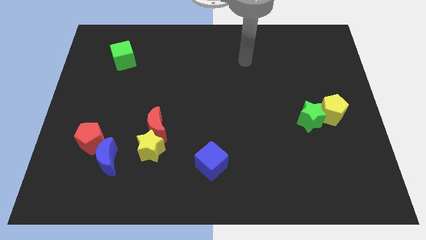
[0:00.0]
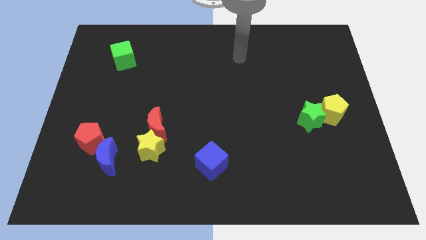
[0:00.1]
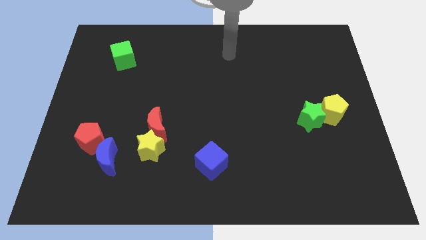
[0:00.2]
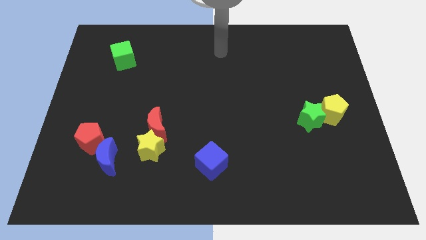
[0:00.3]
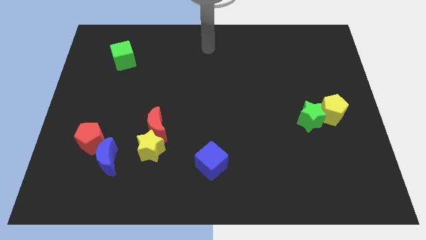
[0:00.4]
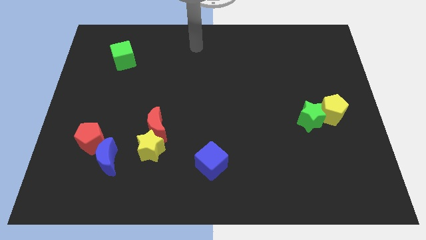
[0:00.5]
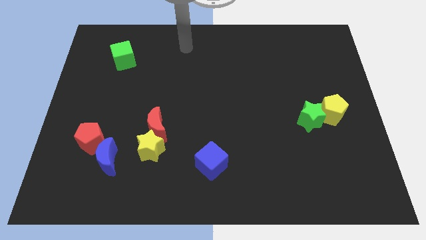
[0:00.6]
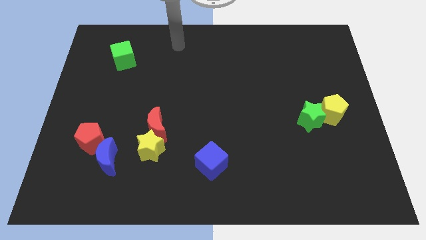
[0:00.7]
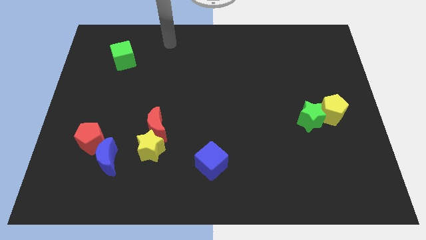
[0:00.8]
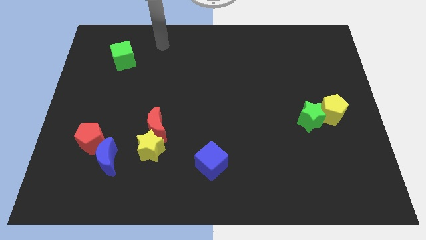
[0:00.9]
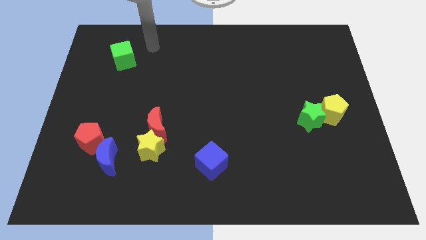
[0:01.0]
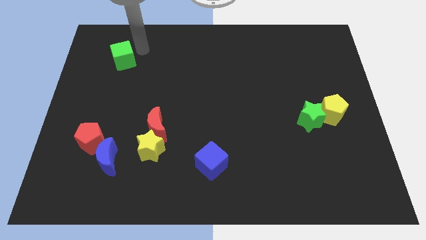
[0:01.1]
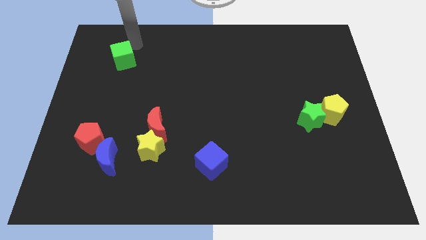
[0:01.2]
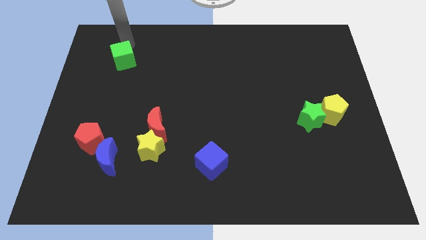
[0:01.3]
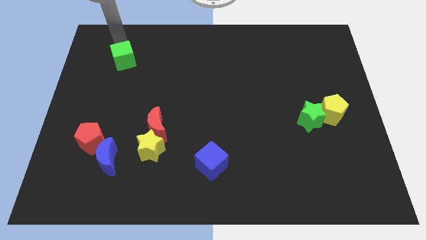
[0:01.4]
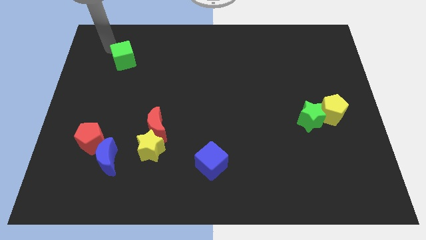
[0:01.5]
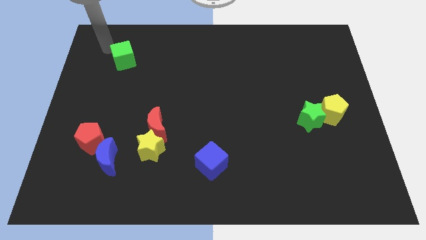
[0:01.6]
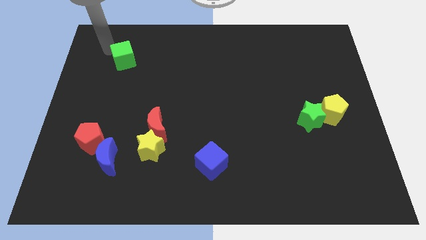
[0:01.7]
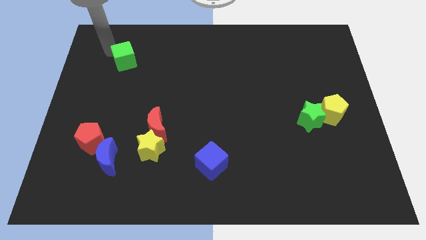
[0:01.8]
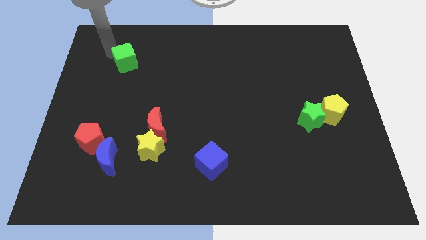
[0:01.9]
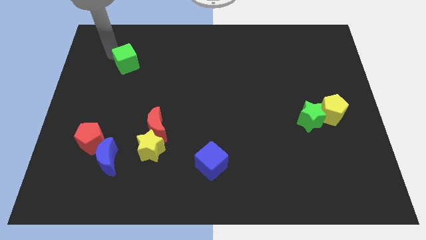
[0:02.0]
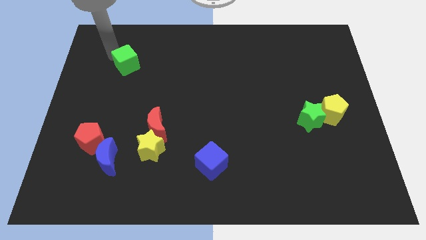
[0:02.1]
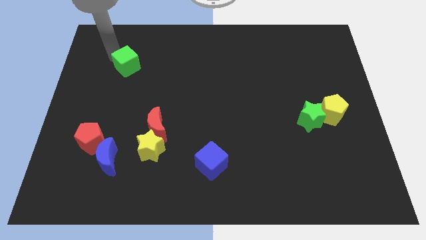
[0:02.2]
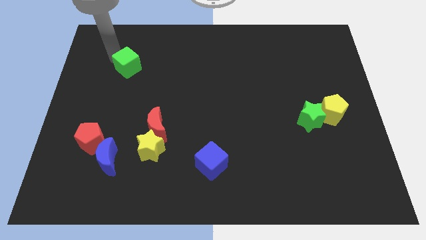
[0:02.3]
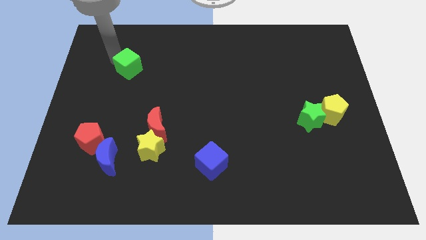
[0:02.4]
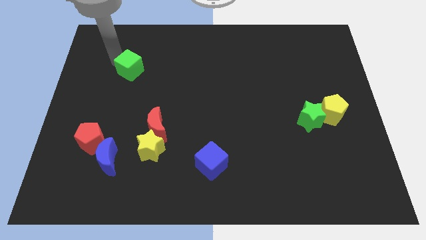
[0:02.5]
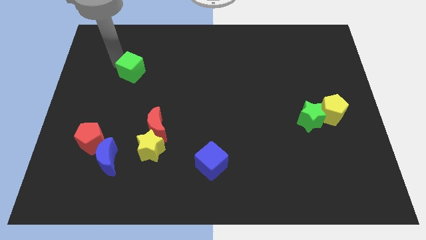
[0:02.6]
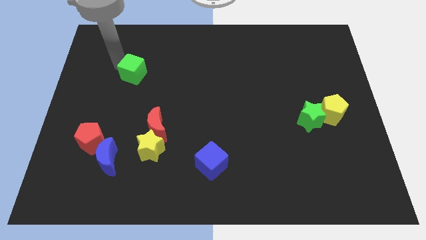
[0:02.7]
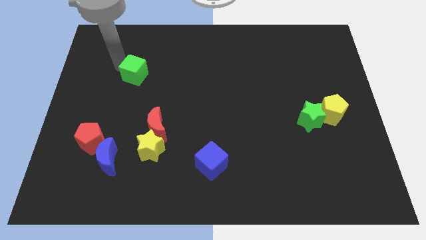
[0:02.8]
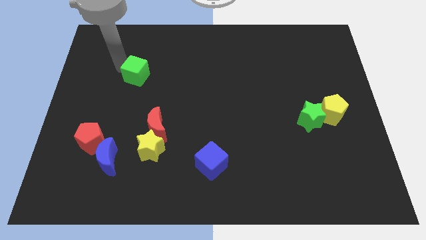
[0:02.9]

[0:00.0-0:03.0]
slide the green cube slightly downwards and to the right

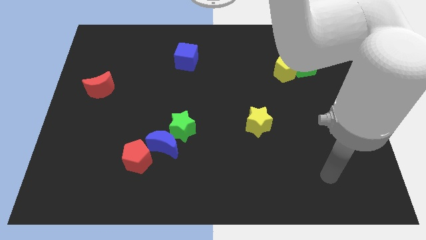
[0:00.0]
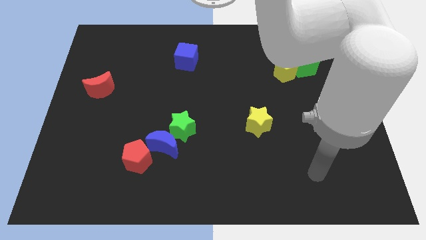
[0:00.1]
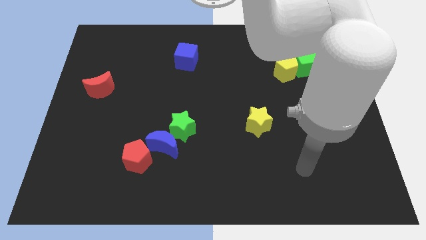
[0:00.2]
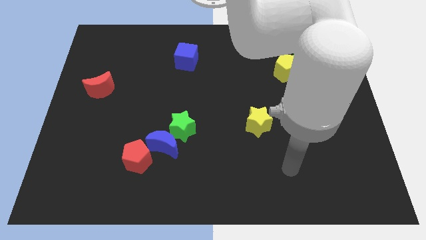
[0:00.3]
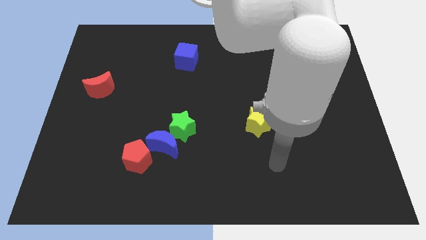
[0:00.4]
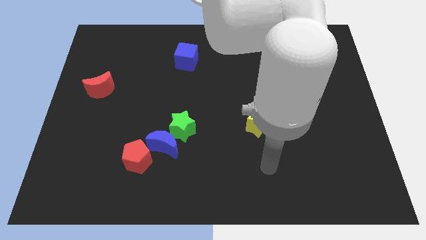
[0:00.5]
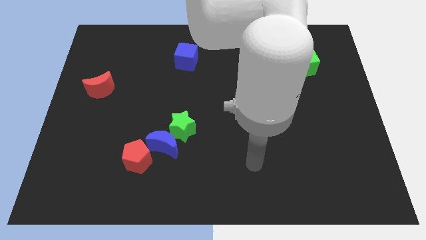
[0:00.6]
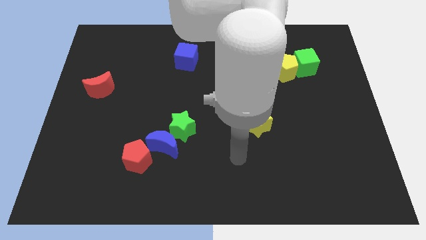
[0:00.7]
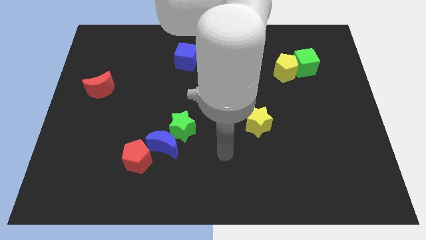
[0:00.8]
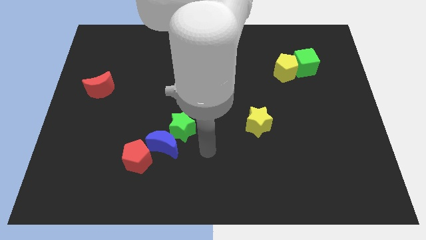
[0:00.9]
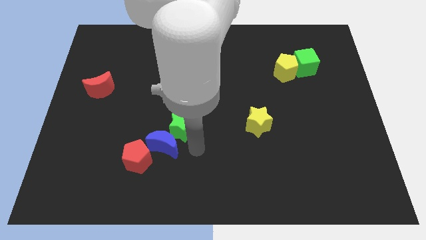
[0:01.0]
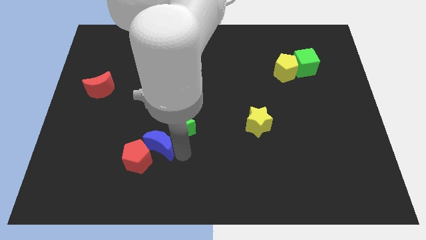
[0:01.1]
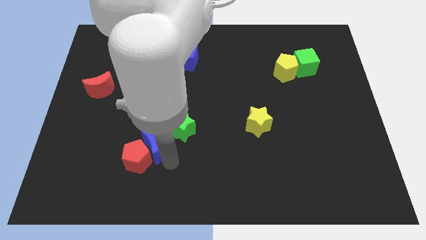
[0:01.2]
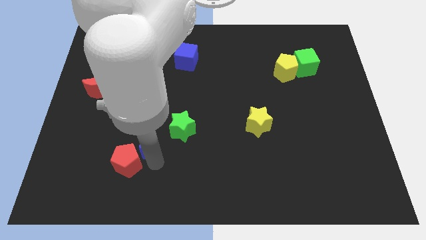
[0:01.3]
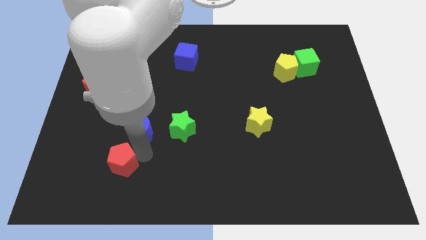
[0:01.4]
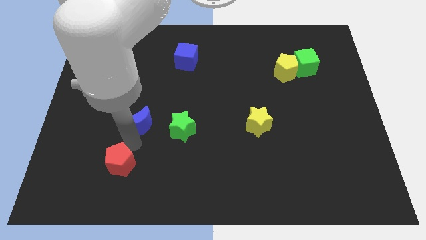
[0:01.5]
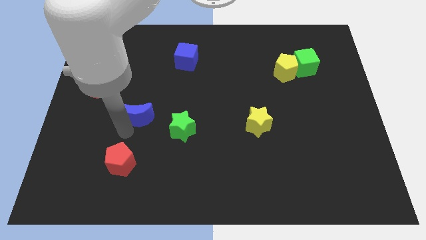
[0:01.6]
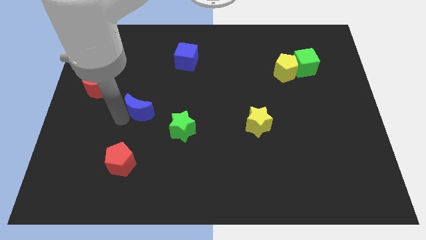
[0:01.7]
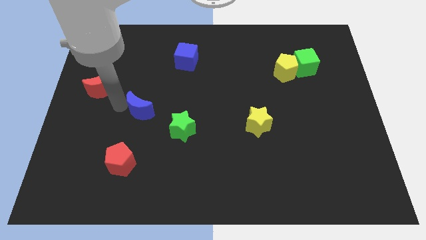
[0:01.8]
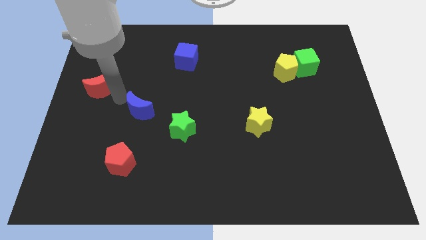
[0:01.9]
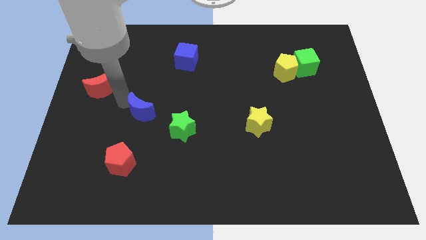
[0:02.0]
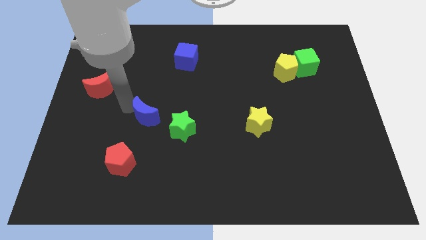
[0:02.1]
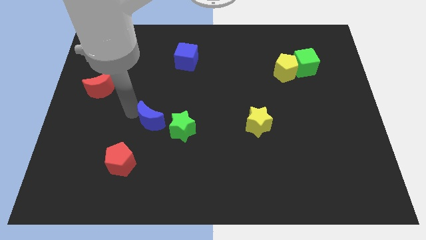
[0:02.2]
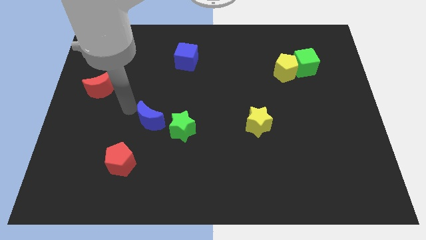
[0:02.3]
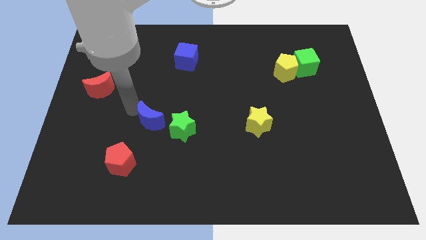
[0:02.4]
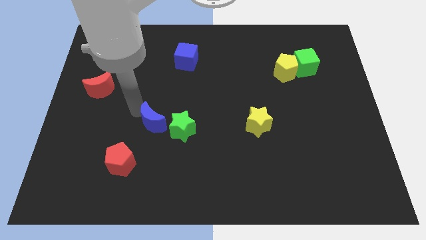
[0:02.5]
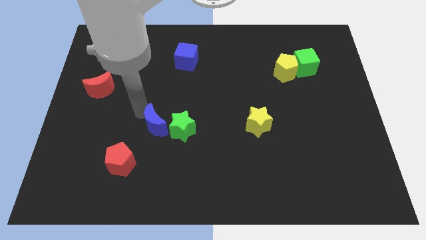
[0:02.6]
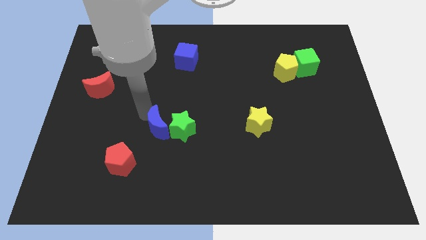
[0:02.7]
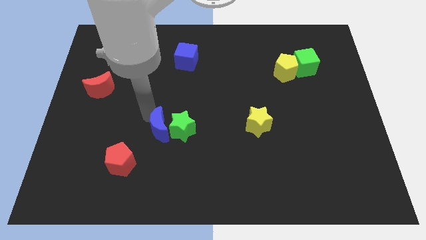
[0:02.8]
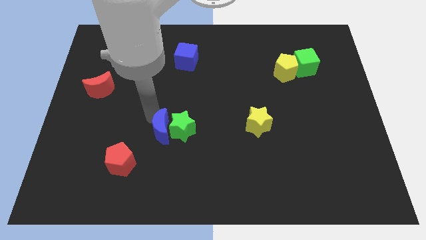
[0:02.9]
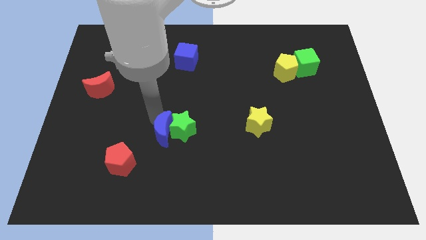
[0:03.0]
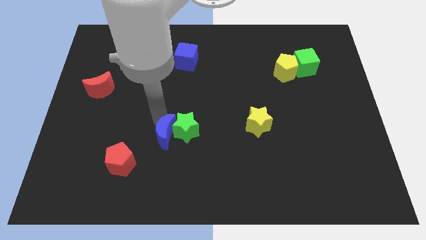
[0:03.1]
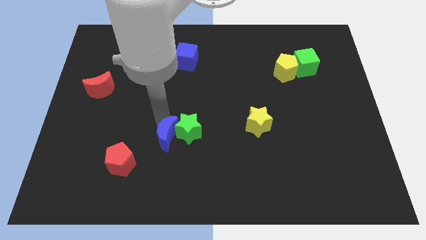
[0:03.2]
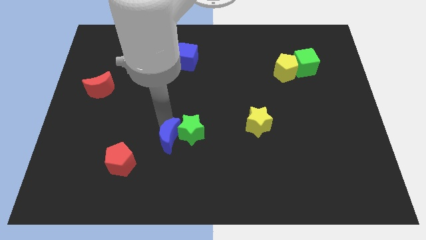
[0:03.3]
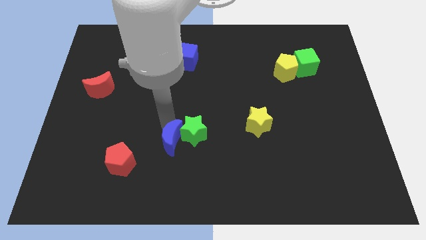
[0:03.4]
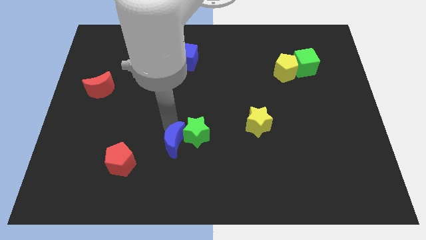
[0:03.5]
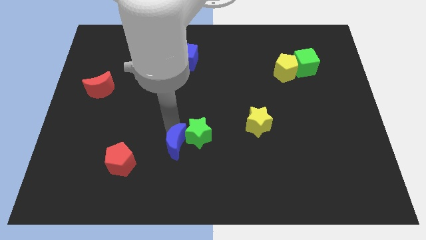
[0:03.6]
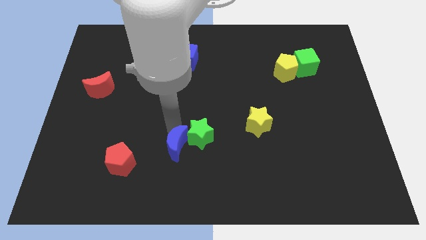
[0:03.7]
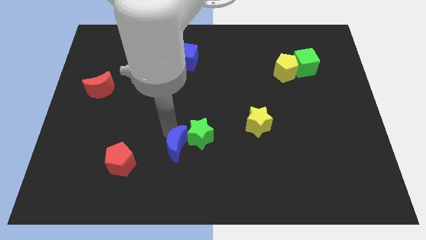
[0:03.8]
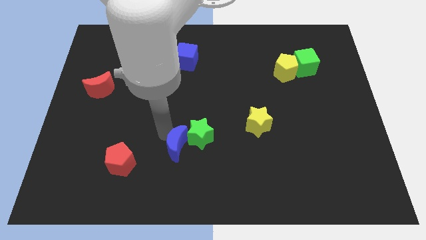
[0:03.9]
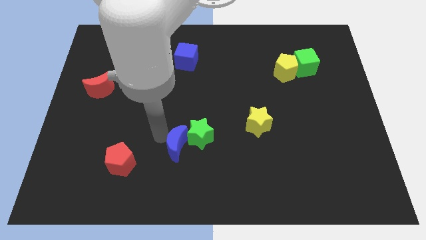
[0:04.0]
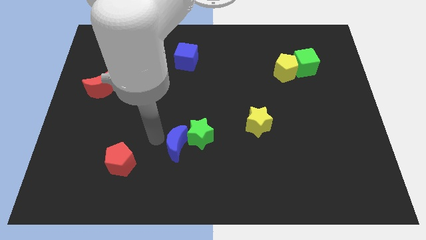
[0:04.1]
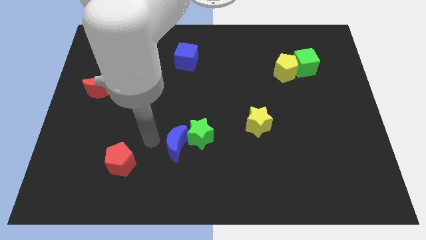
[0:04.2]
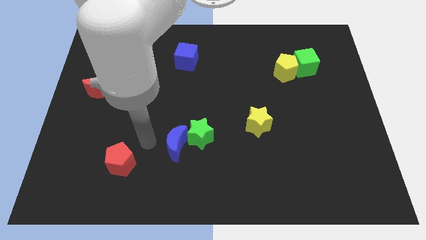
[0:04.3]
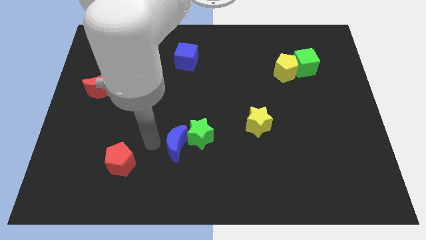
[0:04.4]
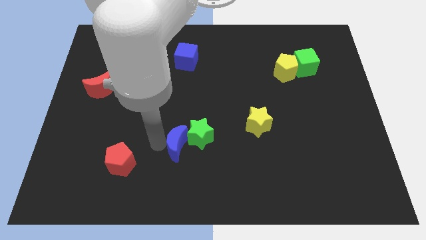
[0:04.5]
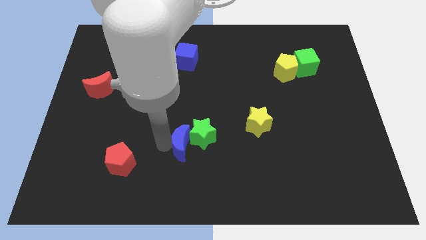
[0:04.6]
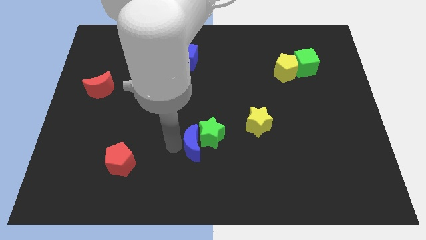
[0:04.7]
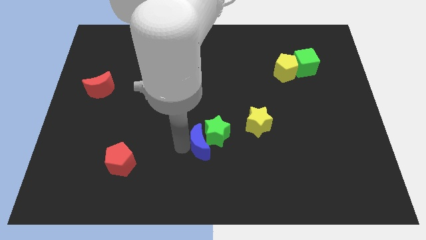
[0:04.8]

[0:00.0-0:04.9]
slightly push the blue moon right

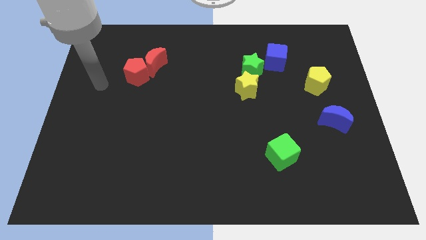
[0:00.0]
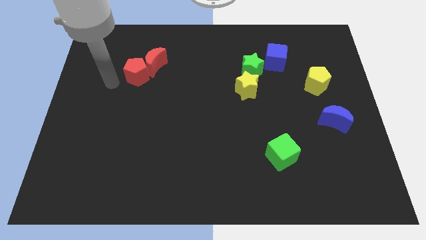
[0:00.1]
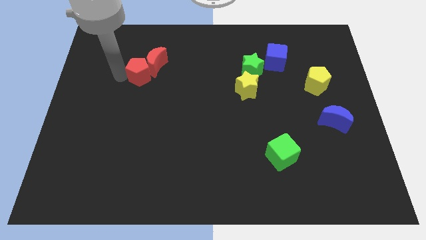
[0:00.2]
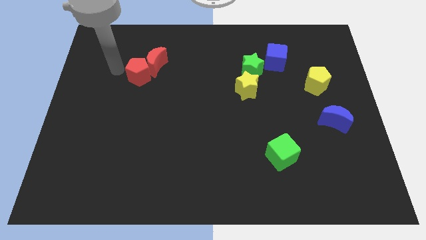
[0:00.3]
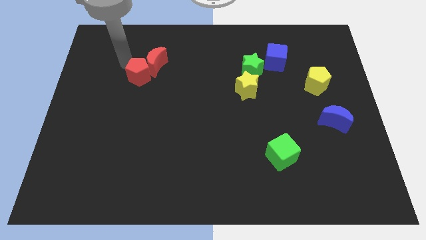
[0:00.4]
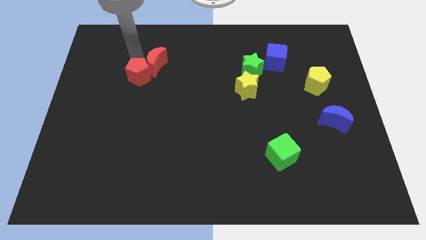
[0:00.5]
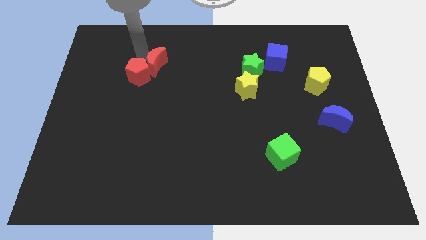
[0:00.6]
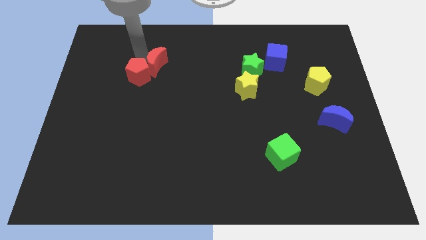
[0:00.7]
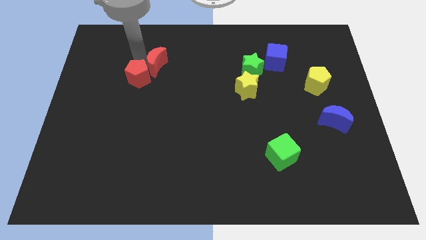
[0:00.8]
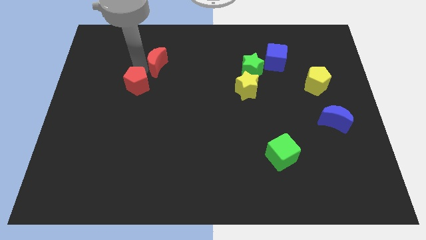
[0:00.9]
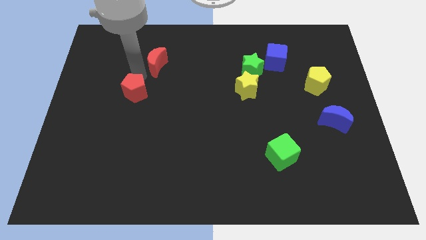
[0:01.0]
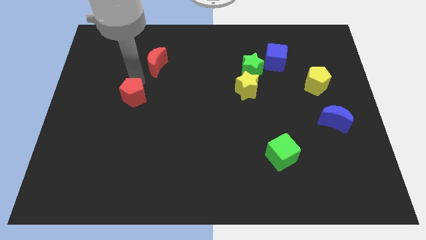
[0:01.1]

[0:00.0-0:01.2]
slightly push the red pentagon down
